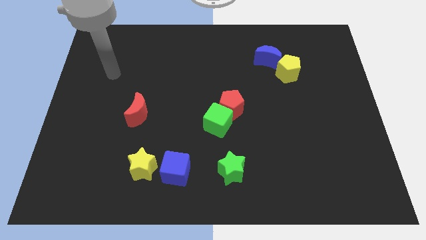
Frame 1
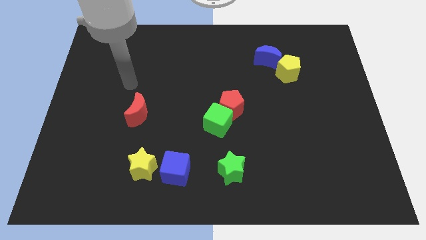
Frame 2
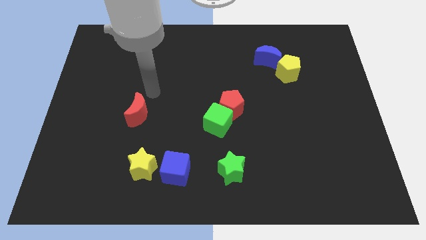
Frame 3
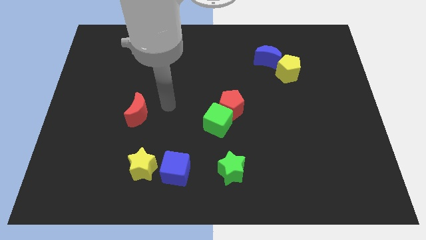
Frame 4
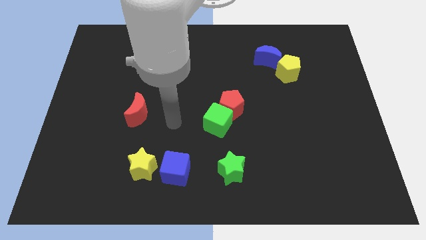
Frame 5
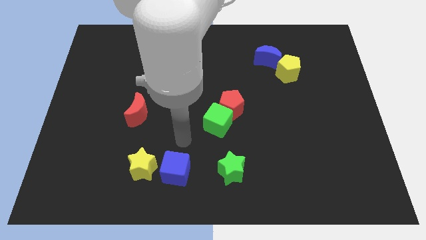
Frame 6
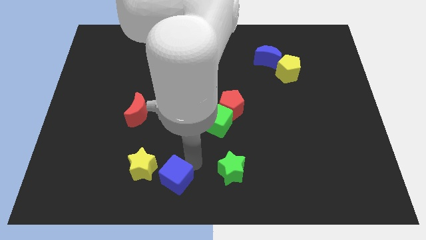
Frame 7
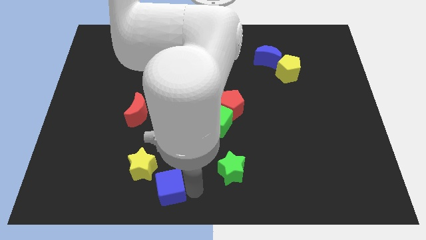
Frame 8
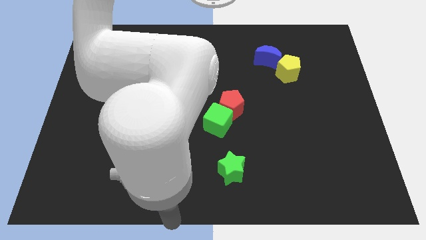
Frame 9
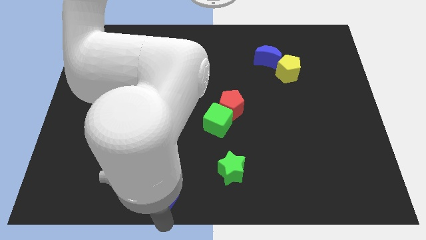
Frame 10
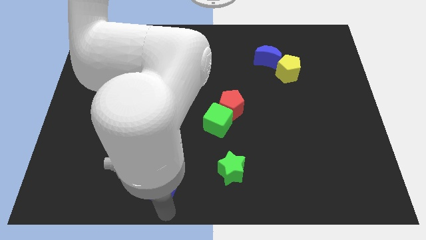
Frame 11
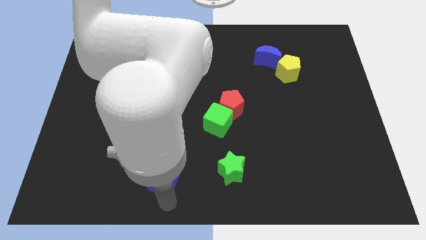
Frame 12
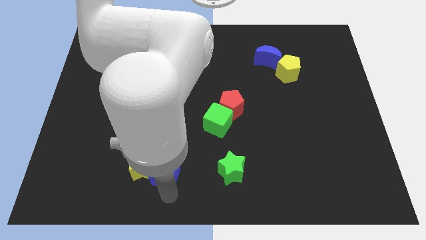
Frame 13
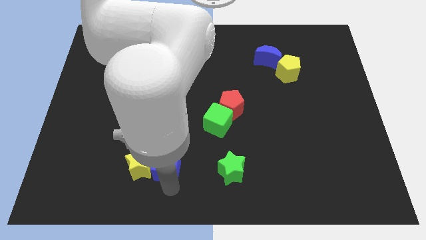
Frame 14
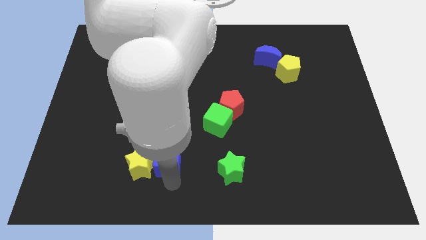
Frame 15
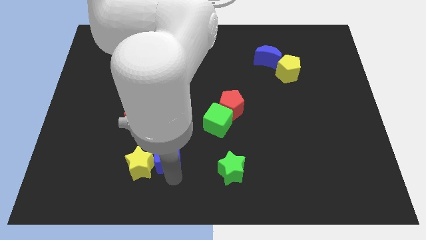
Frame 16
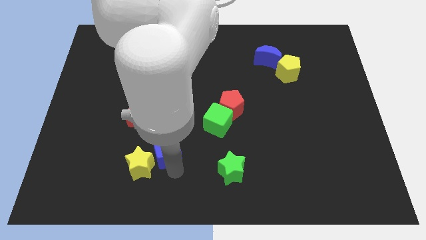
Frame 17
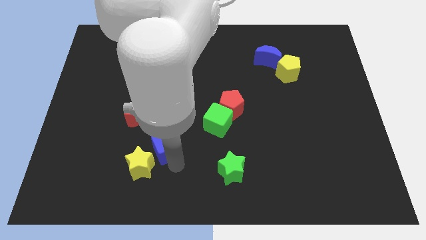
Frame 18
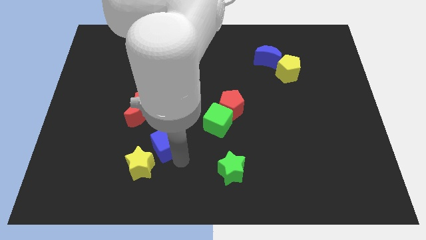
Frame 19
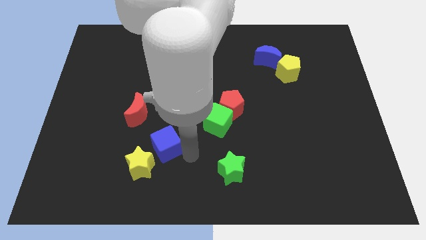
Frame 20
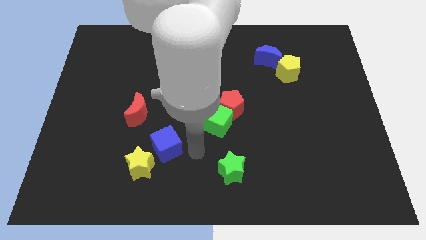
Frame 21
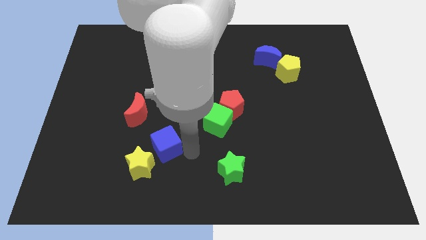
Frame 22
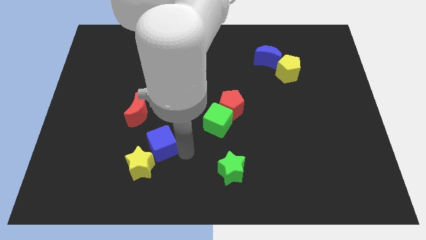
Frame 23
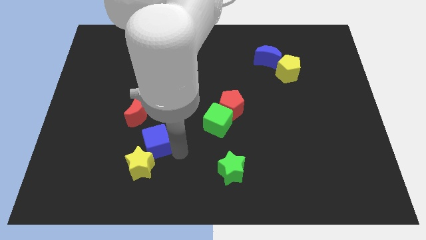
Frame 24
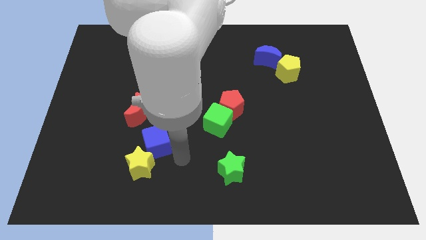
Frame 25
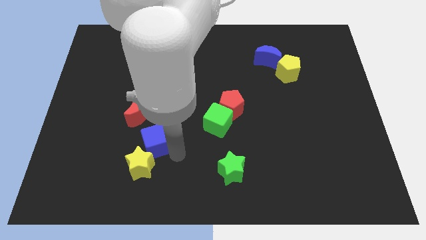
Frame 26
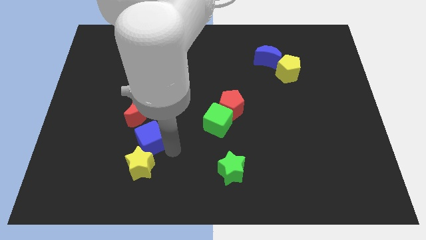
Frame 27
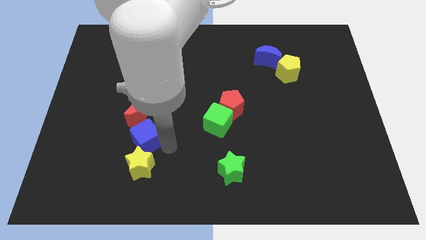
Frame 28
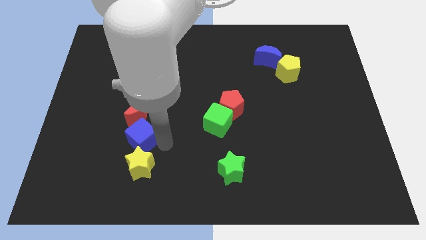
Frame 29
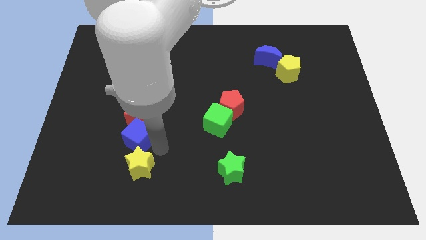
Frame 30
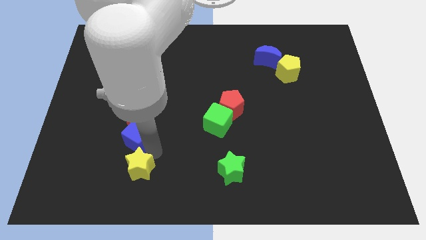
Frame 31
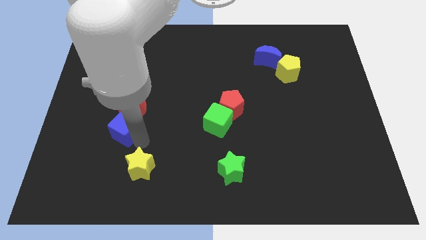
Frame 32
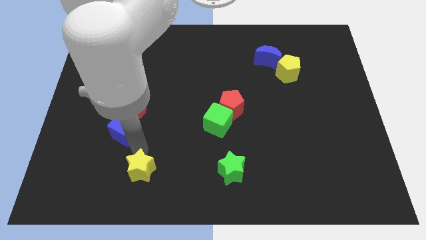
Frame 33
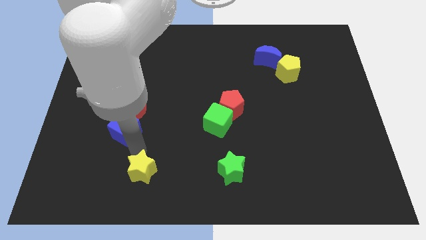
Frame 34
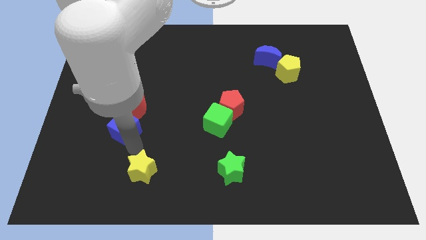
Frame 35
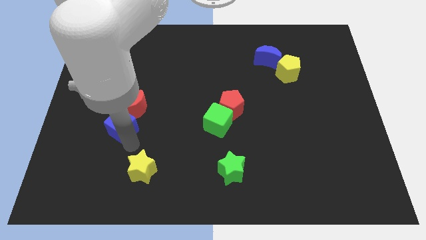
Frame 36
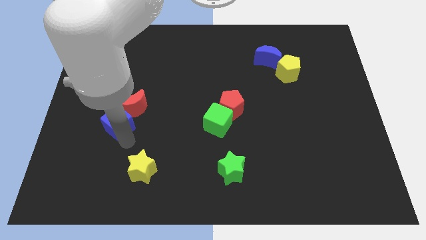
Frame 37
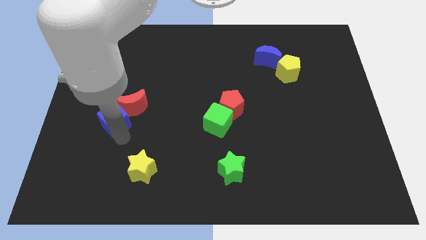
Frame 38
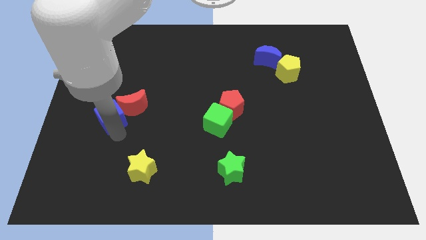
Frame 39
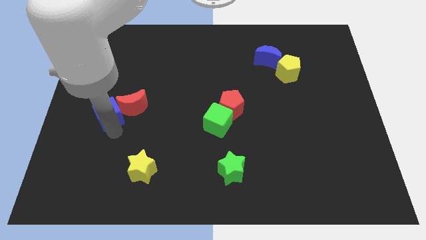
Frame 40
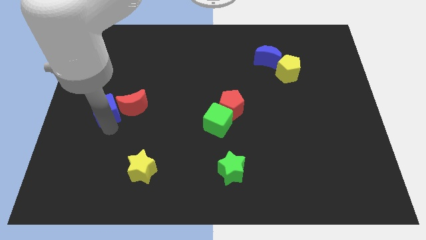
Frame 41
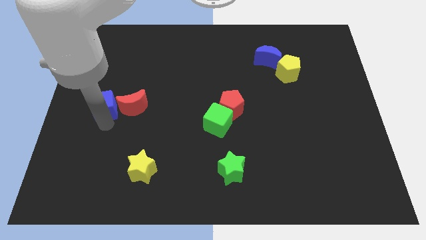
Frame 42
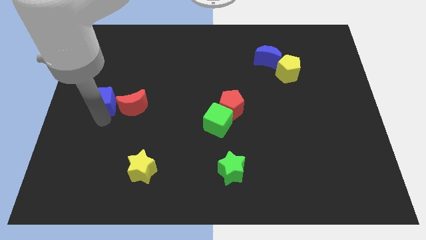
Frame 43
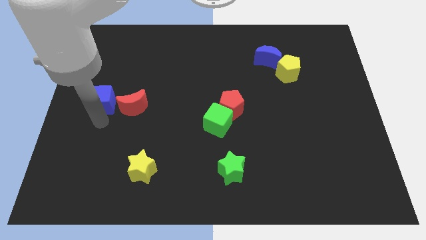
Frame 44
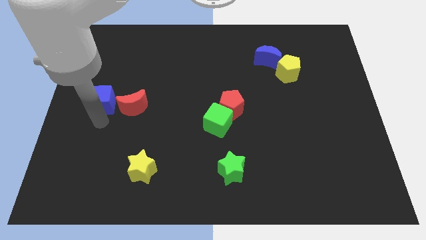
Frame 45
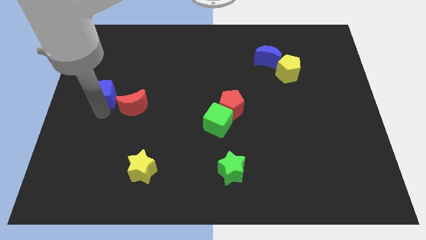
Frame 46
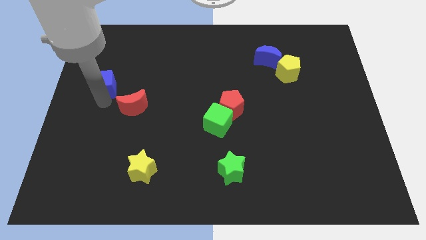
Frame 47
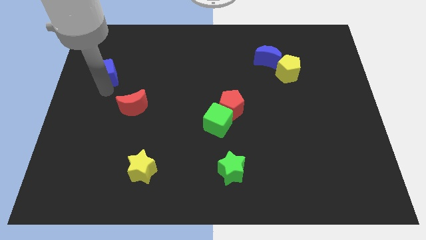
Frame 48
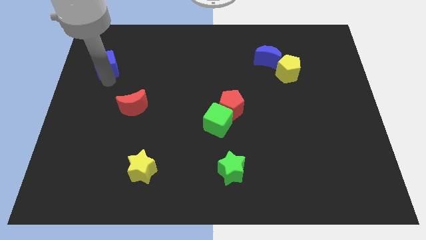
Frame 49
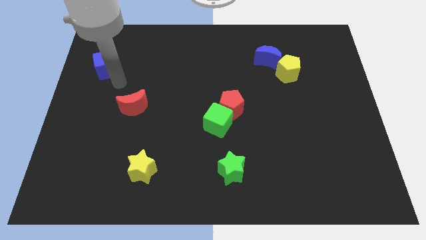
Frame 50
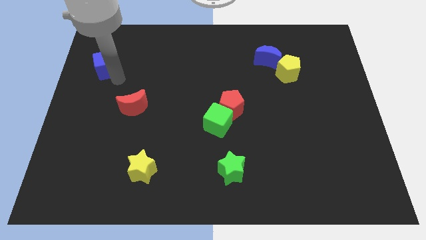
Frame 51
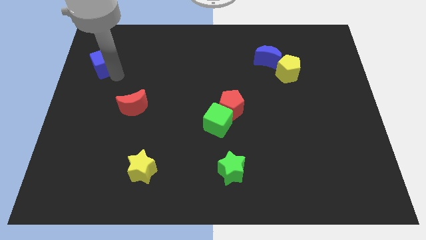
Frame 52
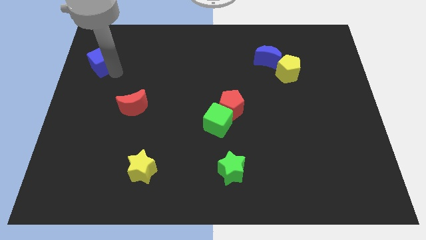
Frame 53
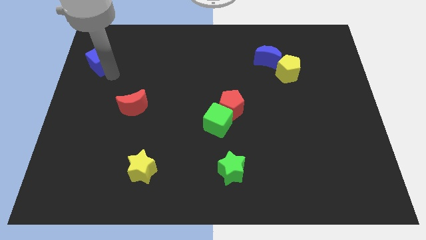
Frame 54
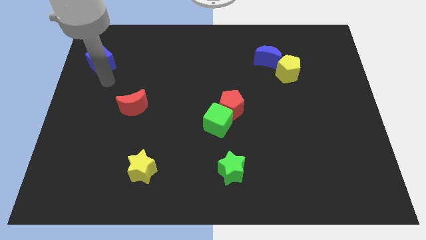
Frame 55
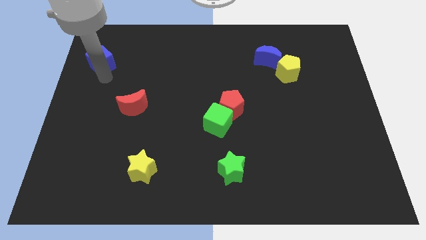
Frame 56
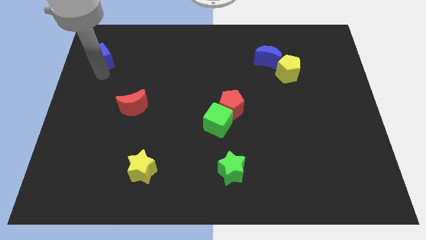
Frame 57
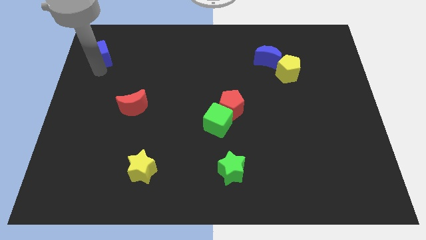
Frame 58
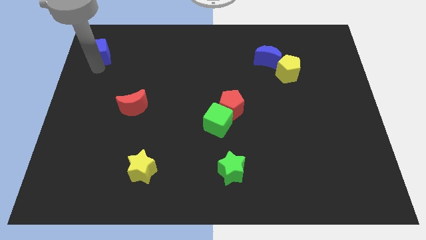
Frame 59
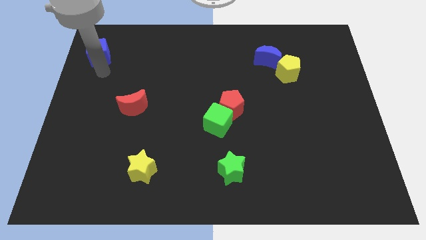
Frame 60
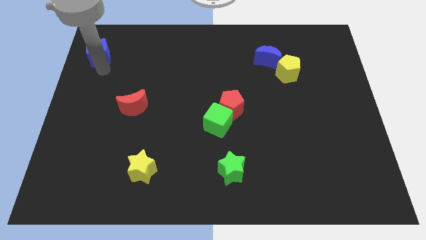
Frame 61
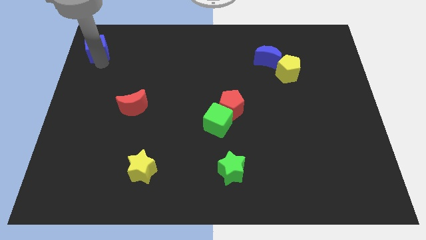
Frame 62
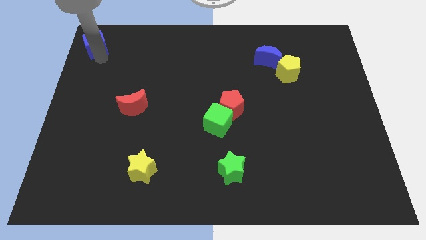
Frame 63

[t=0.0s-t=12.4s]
put the blue cube to the top left corner

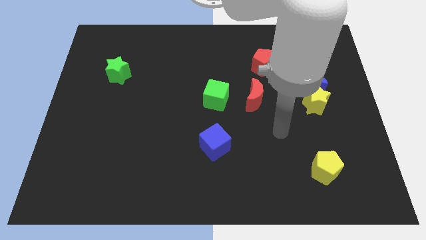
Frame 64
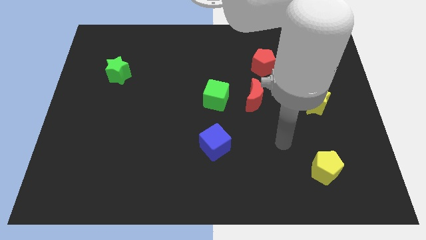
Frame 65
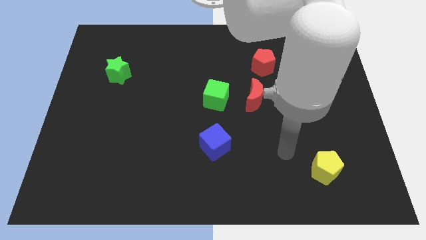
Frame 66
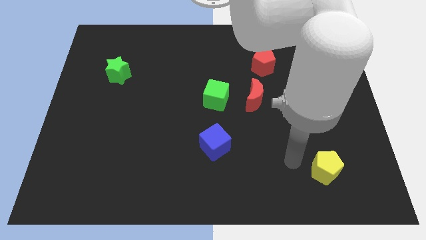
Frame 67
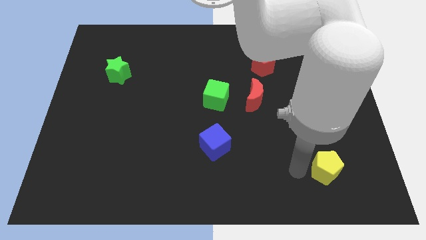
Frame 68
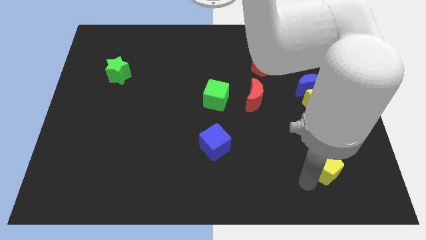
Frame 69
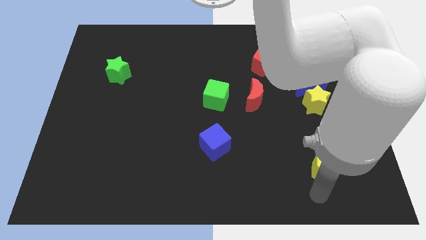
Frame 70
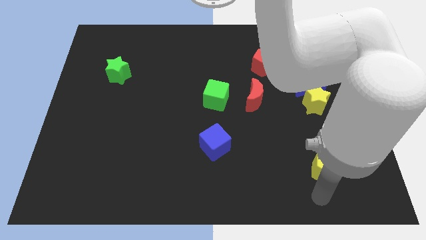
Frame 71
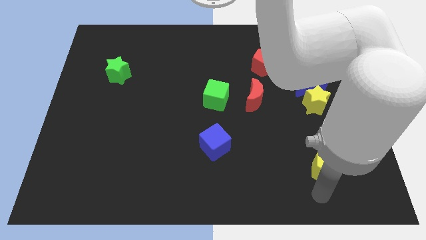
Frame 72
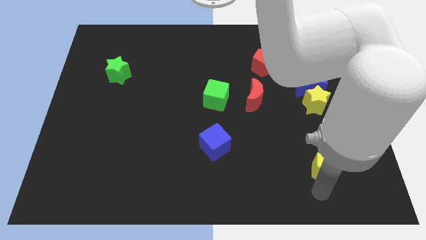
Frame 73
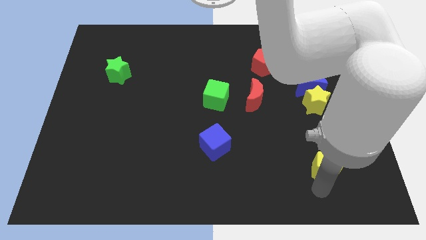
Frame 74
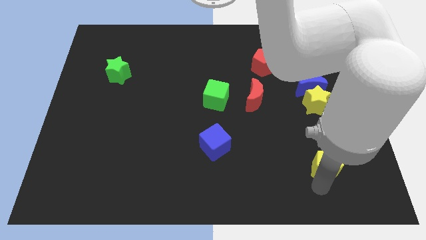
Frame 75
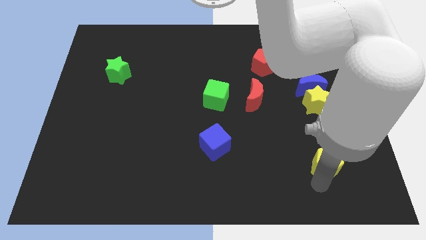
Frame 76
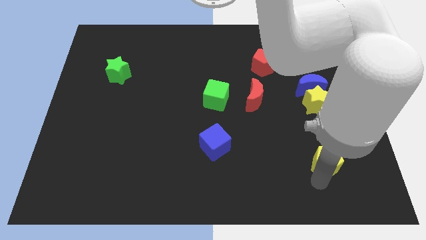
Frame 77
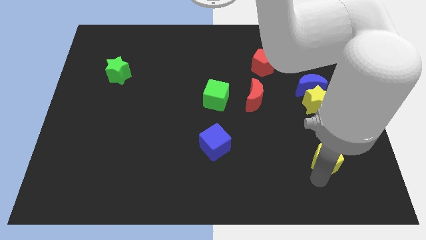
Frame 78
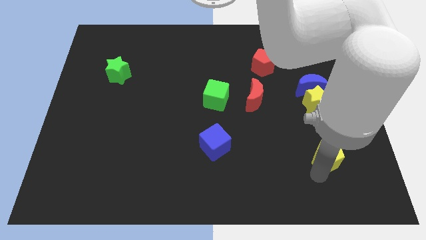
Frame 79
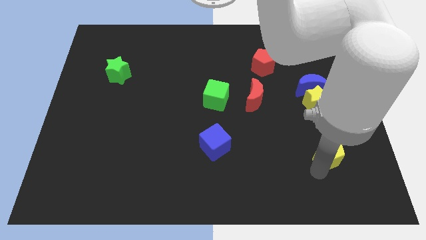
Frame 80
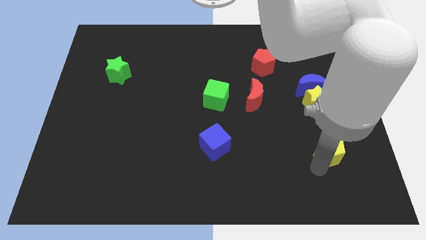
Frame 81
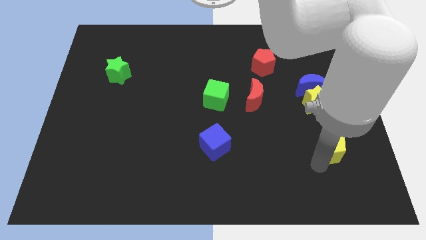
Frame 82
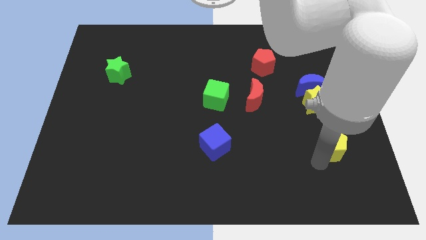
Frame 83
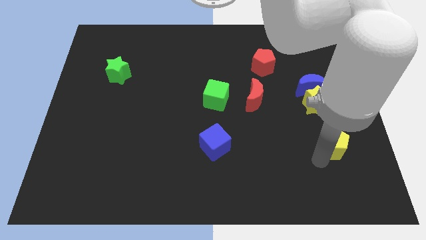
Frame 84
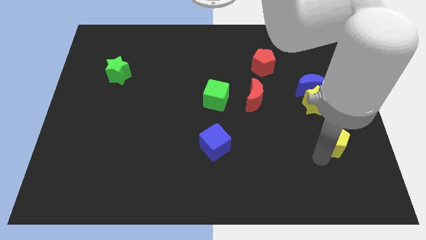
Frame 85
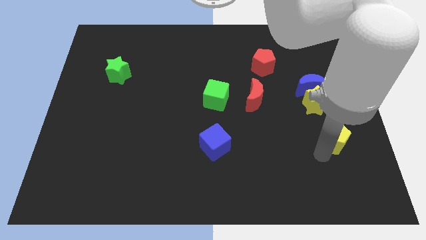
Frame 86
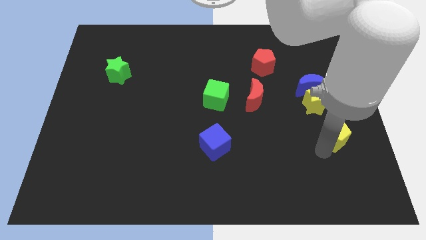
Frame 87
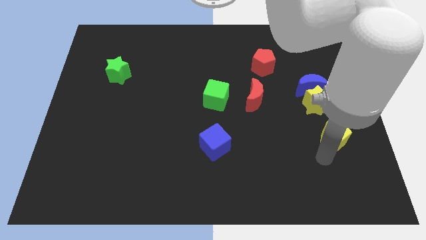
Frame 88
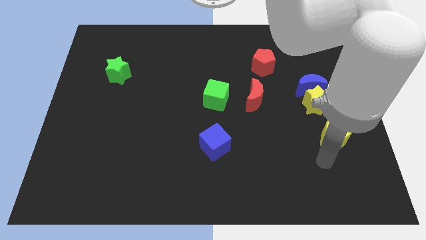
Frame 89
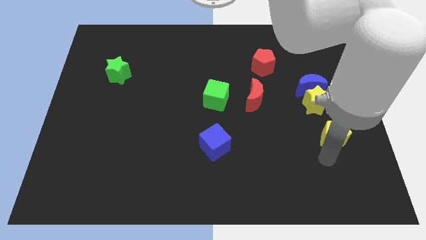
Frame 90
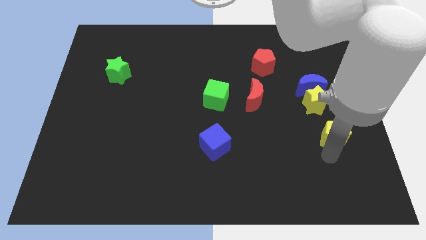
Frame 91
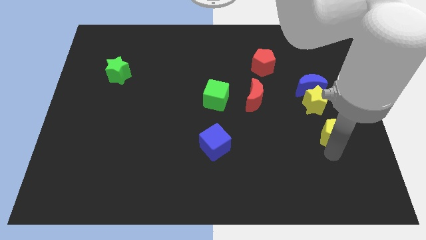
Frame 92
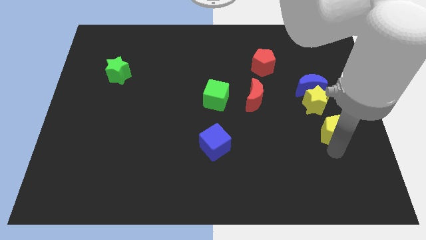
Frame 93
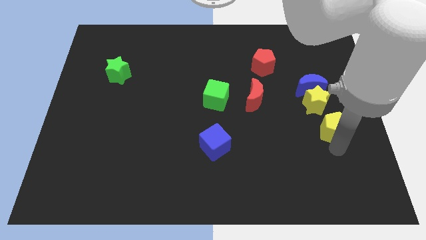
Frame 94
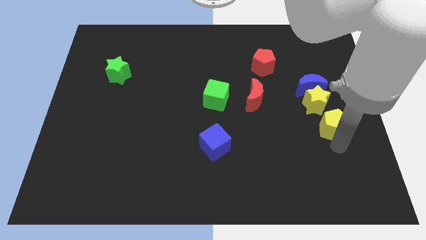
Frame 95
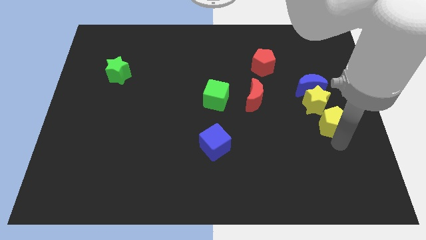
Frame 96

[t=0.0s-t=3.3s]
push the yellow pentagon to the center right
